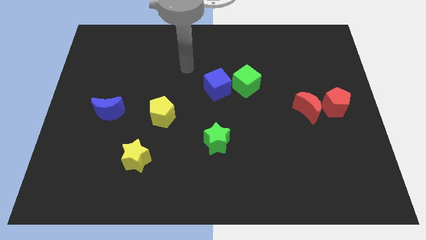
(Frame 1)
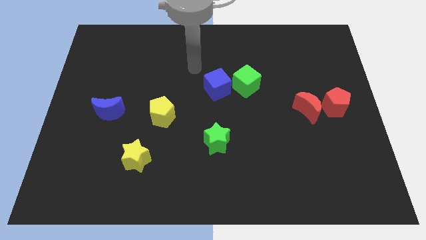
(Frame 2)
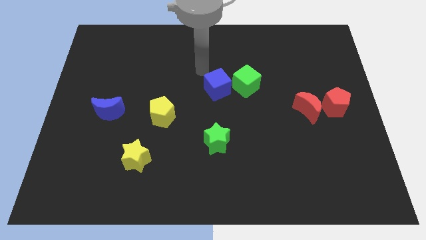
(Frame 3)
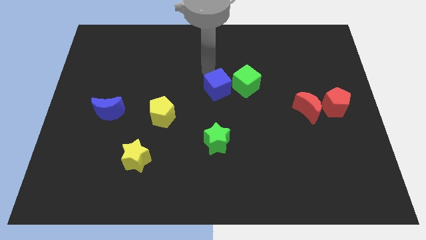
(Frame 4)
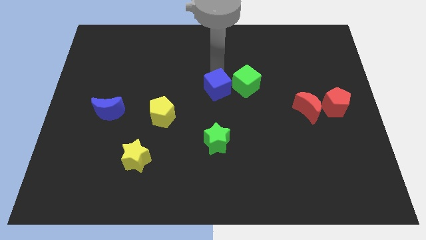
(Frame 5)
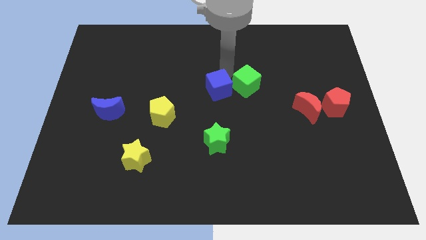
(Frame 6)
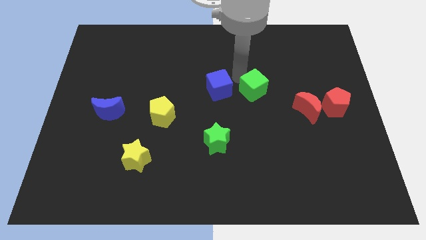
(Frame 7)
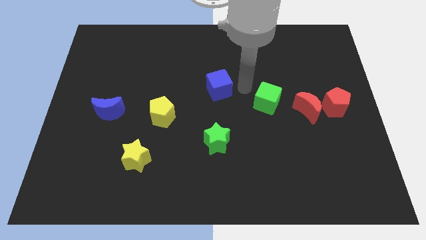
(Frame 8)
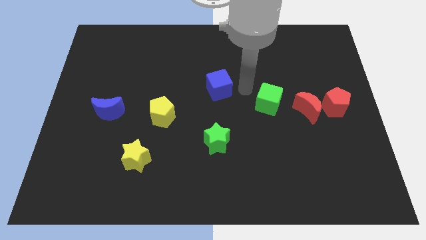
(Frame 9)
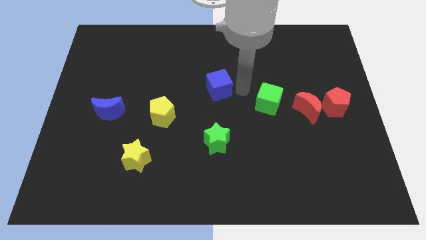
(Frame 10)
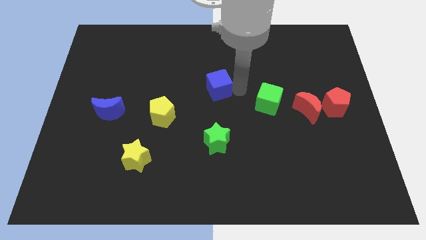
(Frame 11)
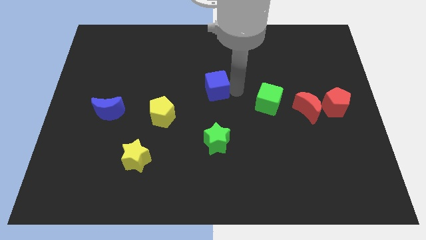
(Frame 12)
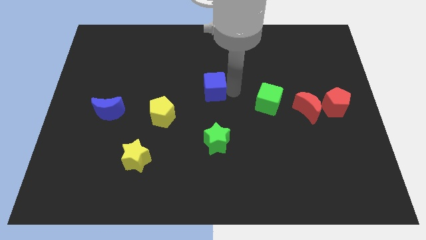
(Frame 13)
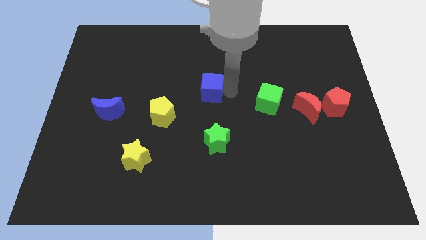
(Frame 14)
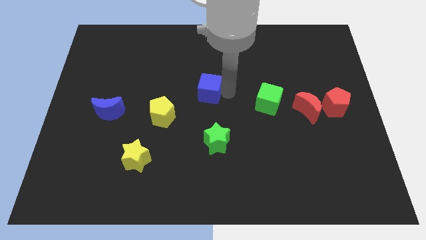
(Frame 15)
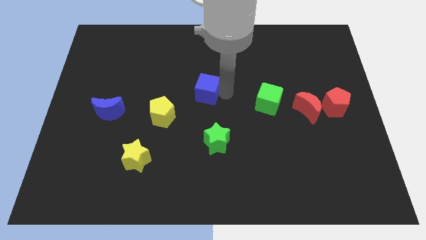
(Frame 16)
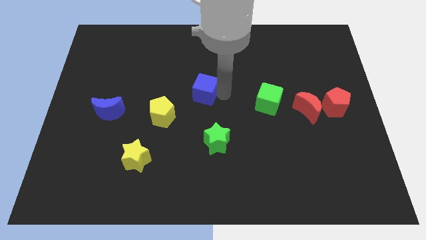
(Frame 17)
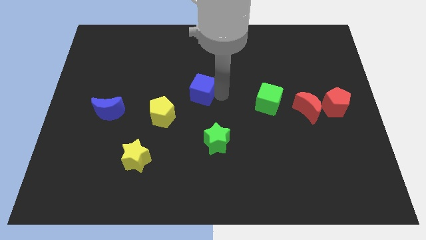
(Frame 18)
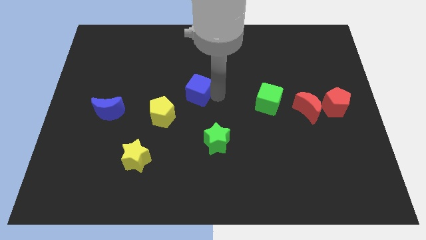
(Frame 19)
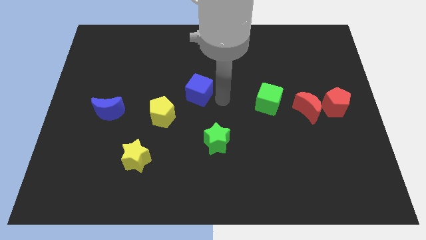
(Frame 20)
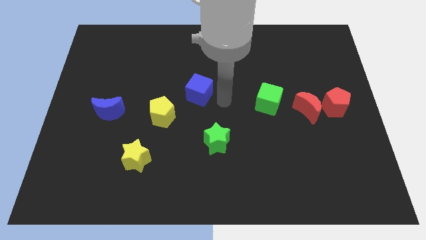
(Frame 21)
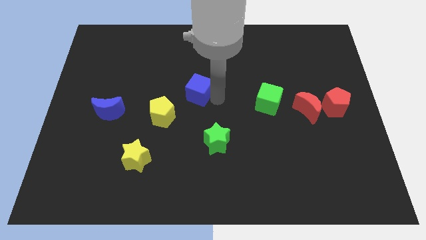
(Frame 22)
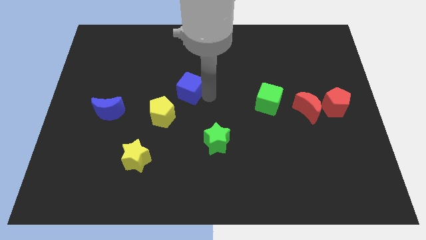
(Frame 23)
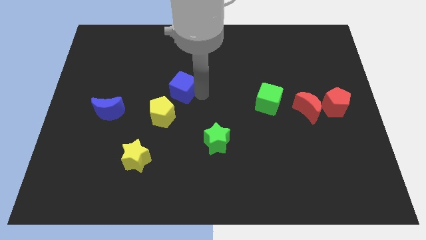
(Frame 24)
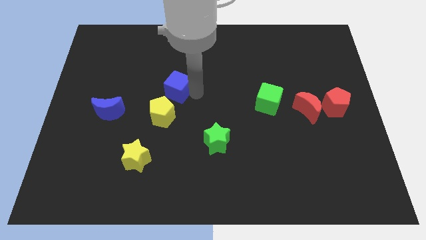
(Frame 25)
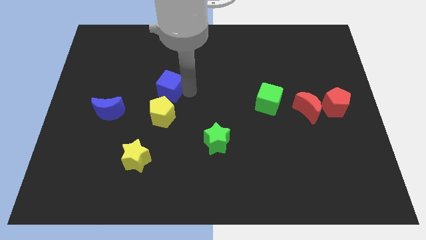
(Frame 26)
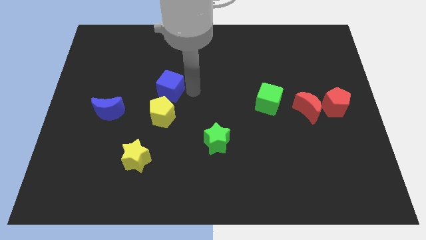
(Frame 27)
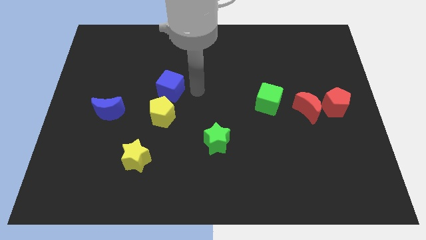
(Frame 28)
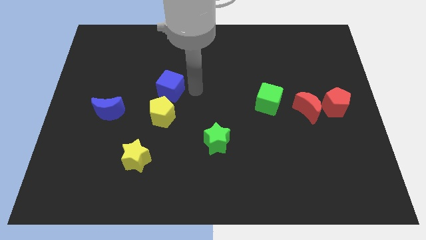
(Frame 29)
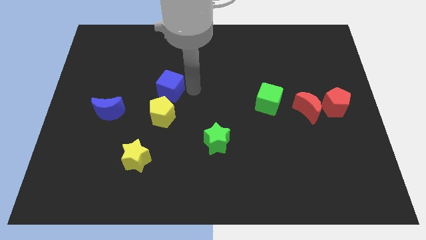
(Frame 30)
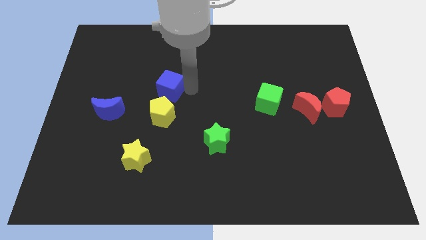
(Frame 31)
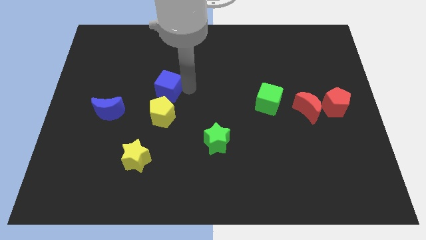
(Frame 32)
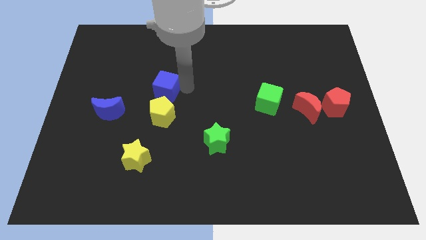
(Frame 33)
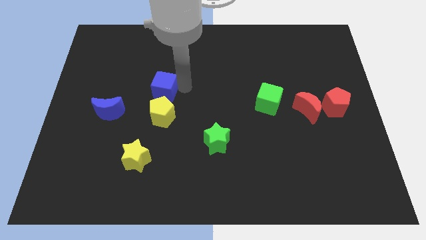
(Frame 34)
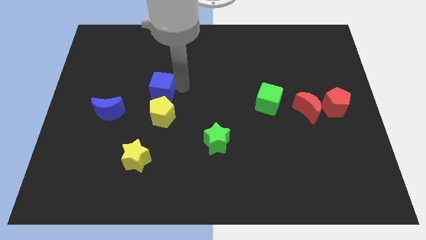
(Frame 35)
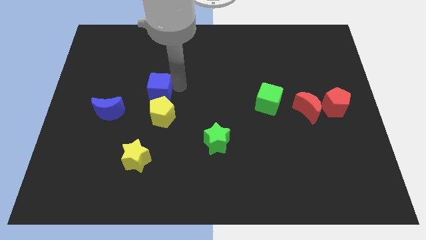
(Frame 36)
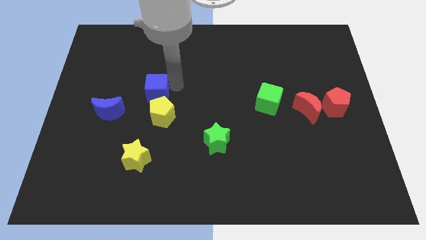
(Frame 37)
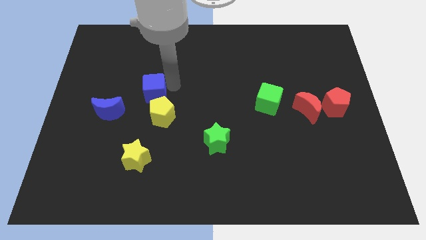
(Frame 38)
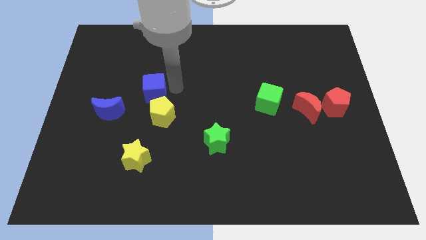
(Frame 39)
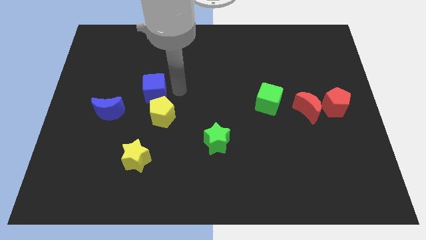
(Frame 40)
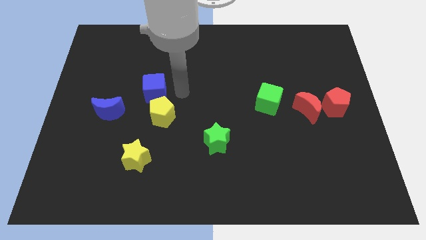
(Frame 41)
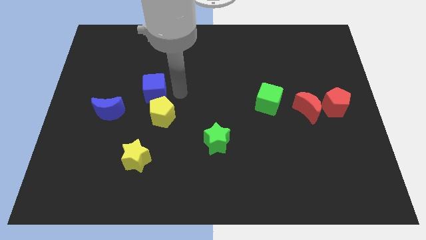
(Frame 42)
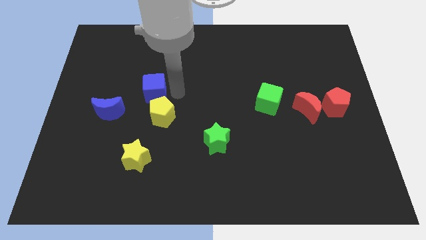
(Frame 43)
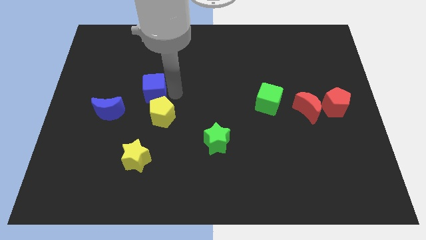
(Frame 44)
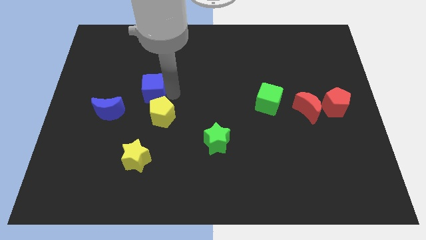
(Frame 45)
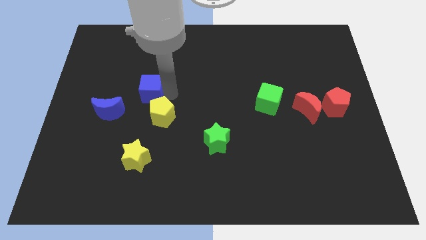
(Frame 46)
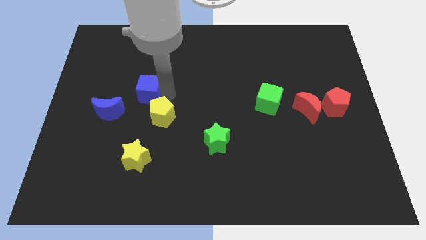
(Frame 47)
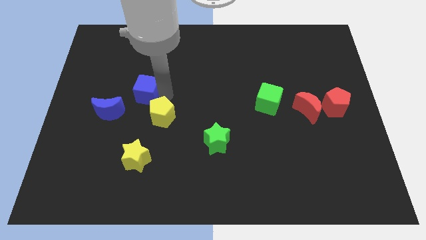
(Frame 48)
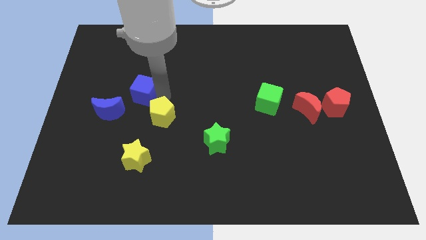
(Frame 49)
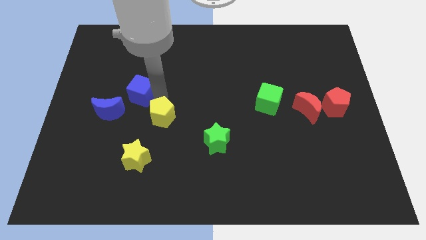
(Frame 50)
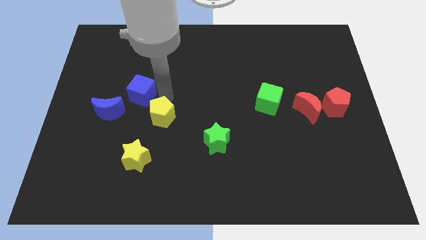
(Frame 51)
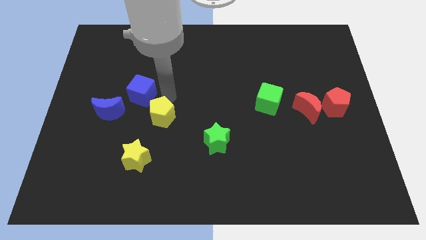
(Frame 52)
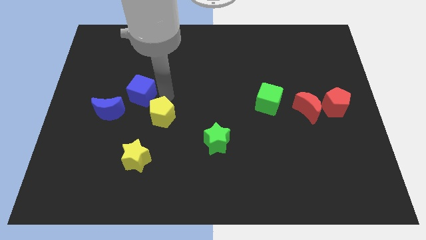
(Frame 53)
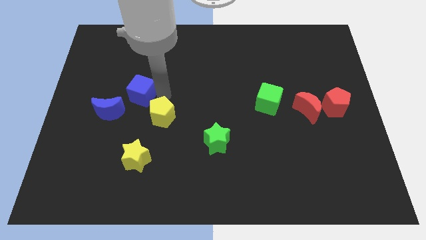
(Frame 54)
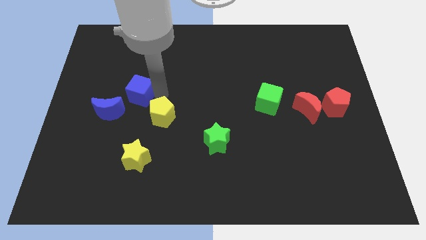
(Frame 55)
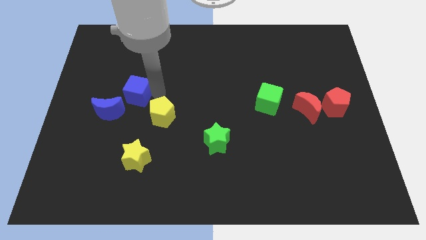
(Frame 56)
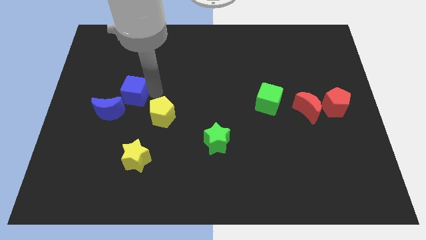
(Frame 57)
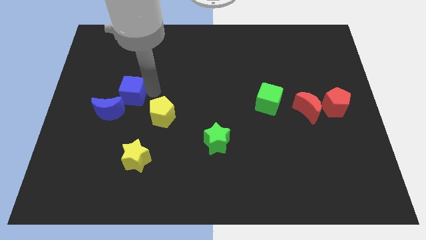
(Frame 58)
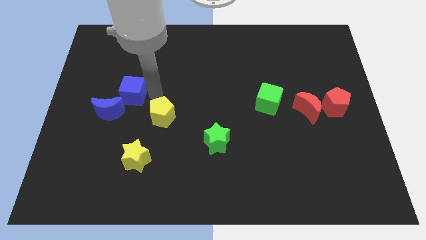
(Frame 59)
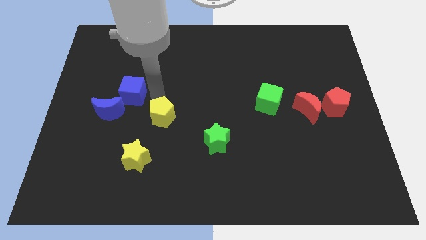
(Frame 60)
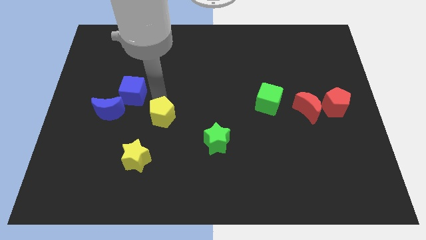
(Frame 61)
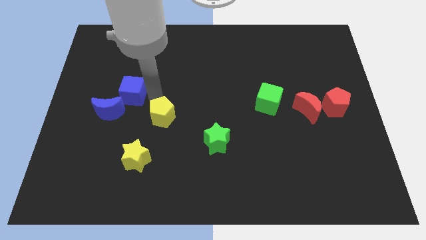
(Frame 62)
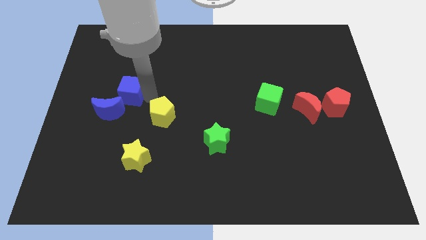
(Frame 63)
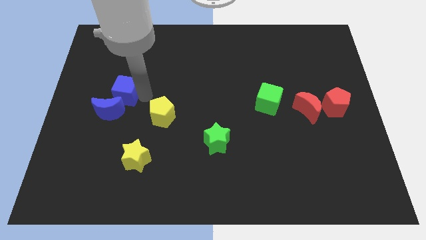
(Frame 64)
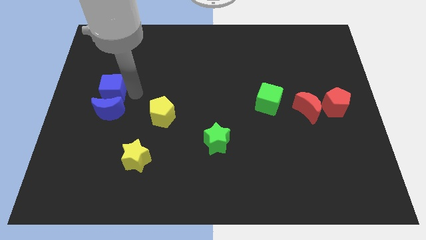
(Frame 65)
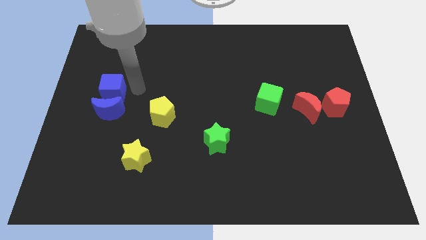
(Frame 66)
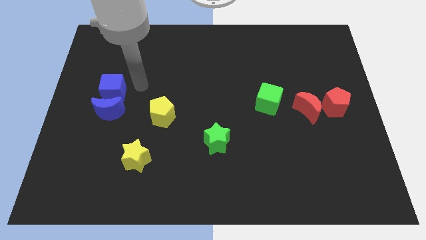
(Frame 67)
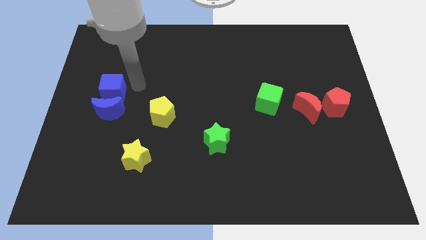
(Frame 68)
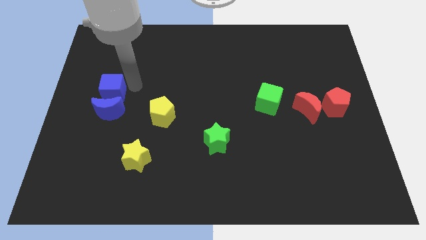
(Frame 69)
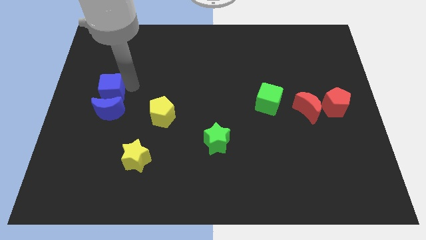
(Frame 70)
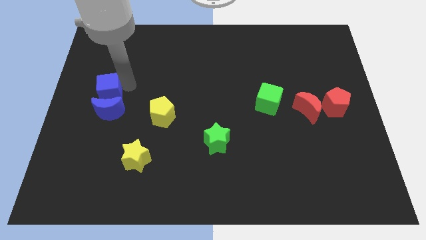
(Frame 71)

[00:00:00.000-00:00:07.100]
put the blue cube to the left side of the board
